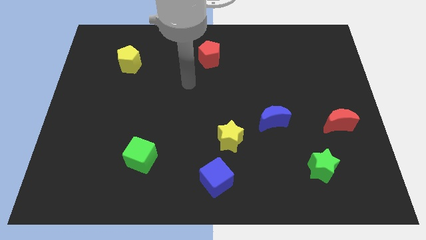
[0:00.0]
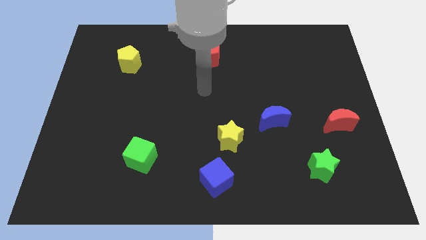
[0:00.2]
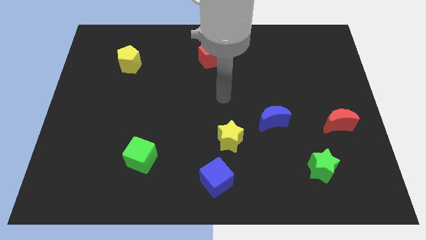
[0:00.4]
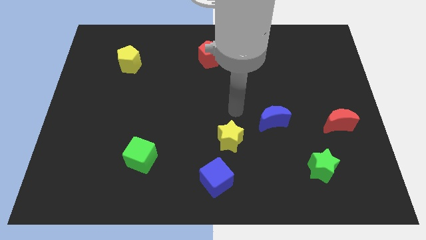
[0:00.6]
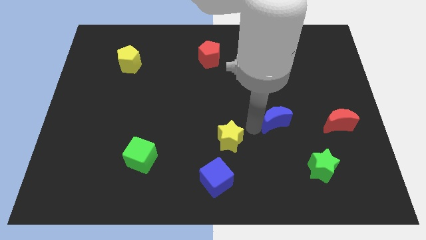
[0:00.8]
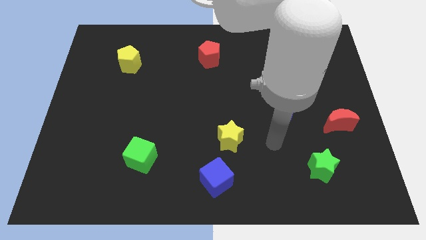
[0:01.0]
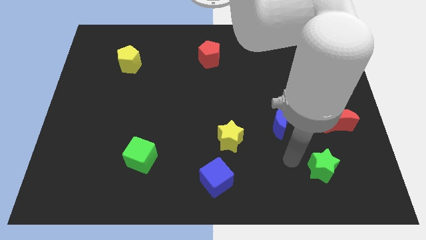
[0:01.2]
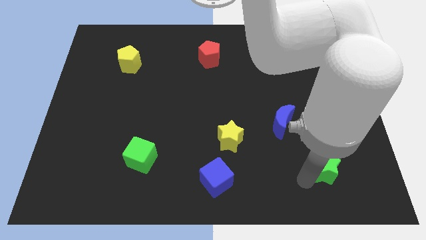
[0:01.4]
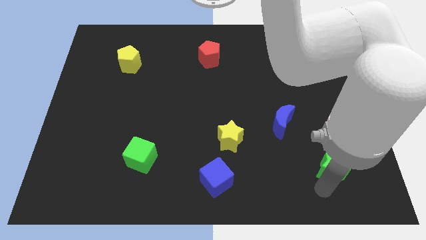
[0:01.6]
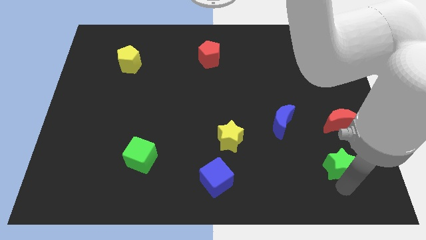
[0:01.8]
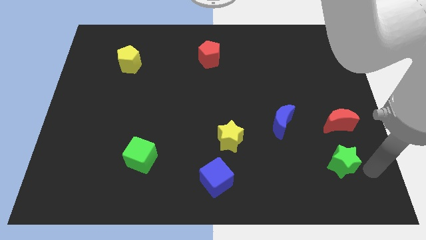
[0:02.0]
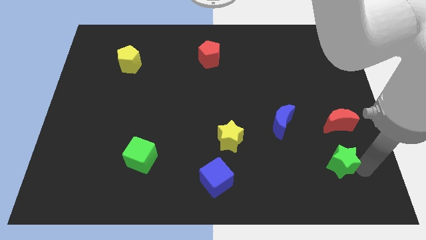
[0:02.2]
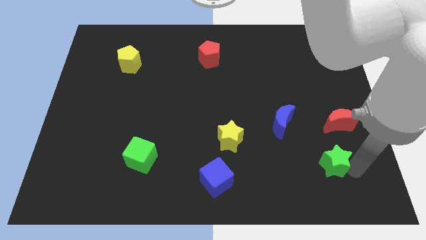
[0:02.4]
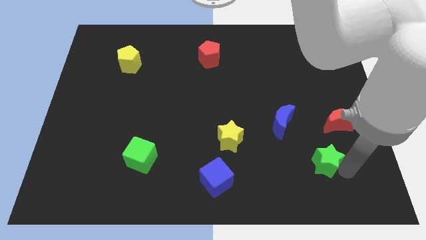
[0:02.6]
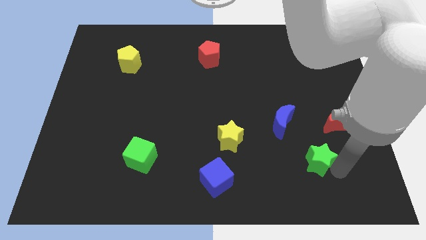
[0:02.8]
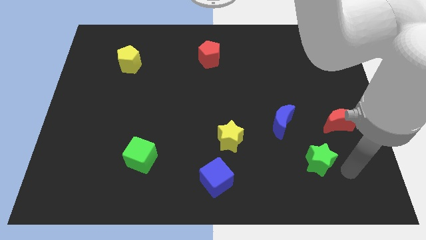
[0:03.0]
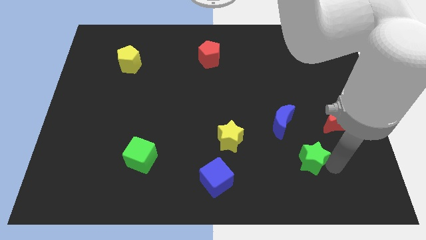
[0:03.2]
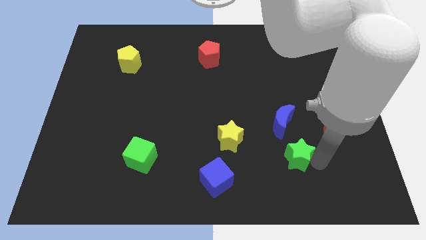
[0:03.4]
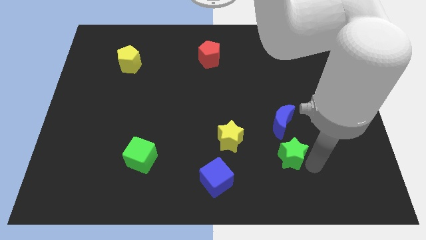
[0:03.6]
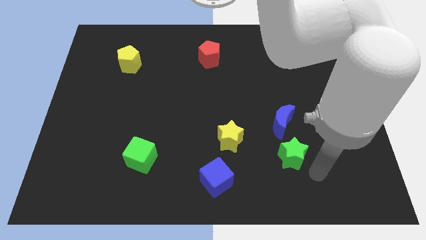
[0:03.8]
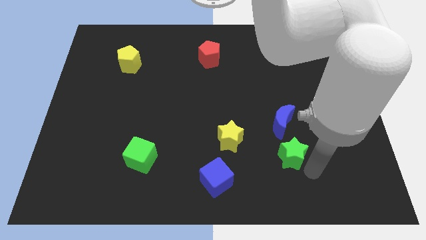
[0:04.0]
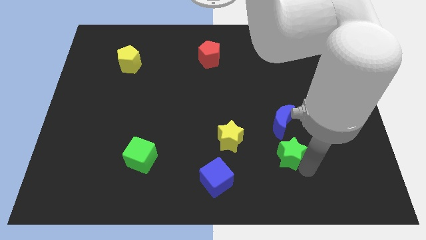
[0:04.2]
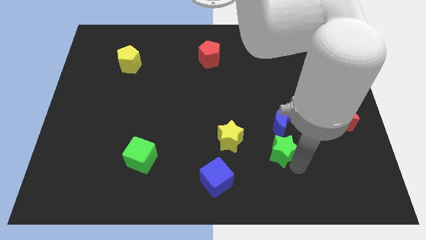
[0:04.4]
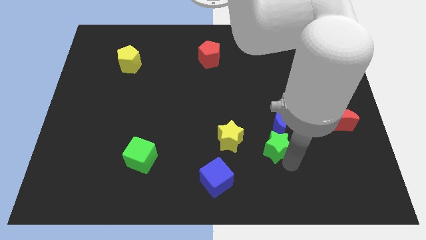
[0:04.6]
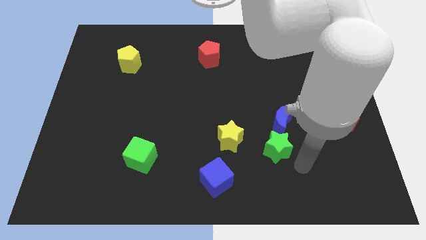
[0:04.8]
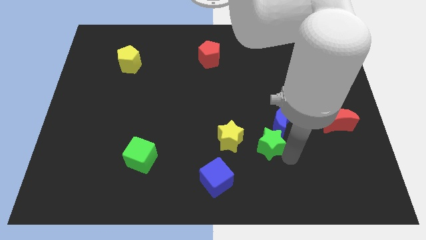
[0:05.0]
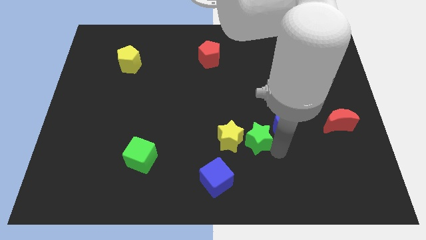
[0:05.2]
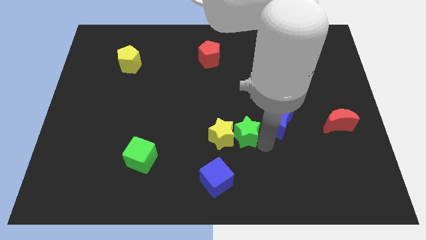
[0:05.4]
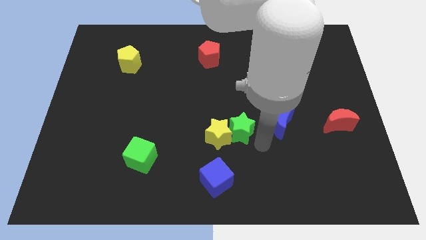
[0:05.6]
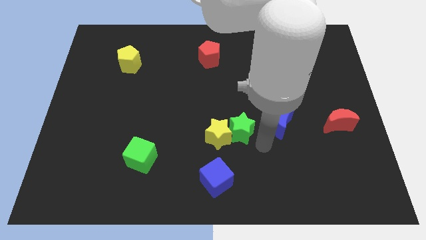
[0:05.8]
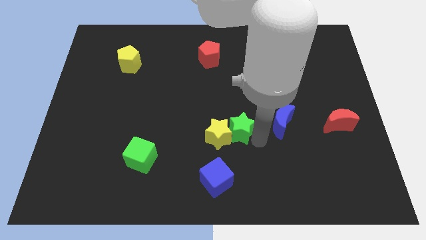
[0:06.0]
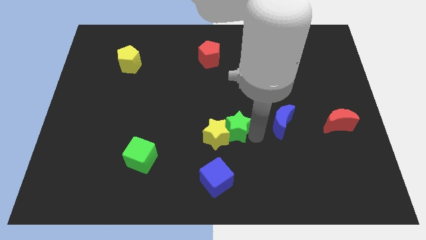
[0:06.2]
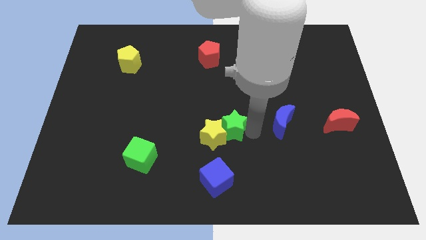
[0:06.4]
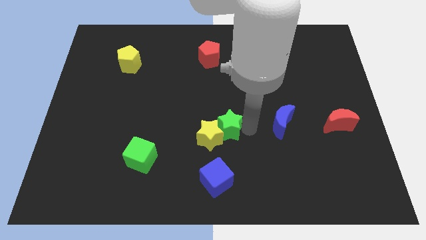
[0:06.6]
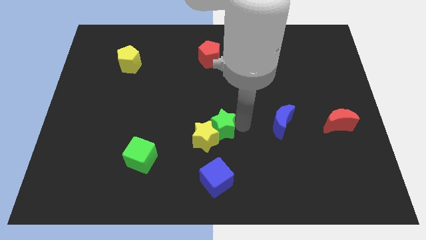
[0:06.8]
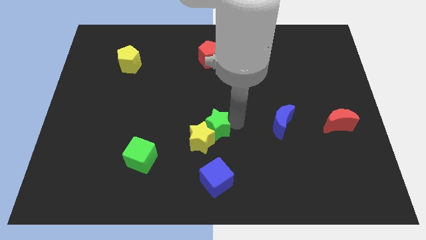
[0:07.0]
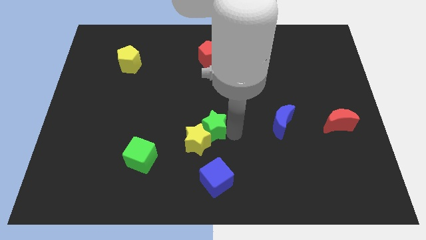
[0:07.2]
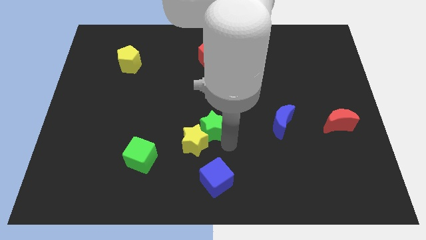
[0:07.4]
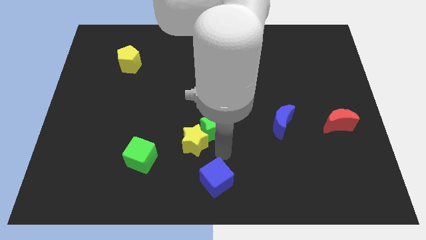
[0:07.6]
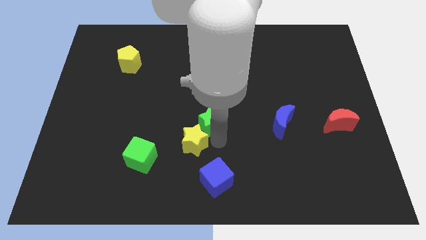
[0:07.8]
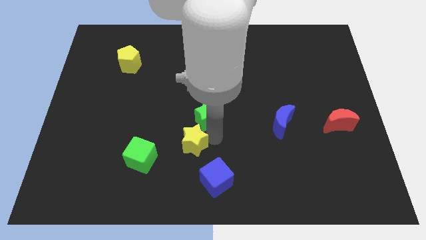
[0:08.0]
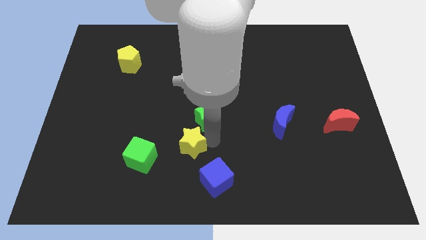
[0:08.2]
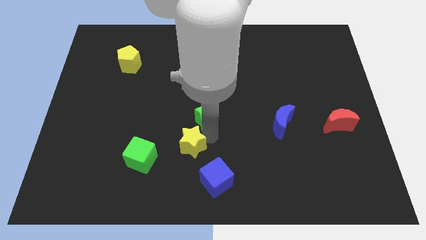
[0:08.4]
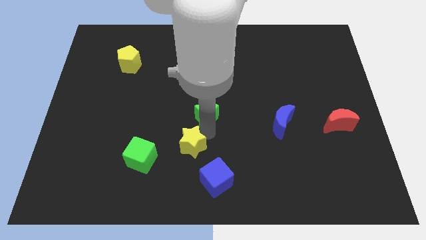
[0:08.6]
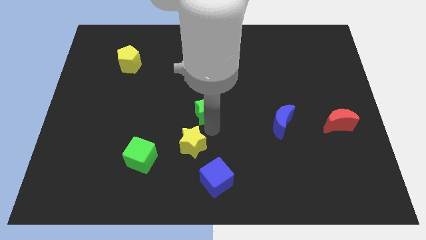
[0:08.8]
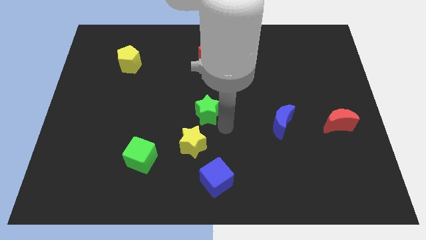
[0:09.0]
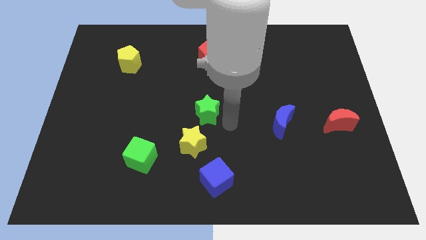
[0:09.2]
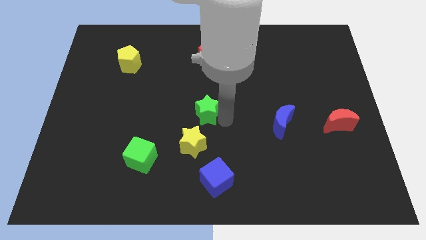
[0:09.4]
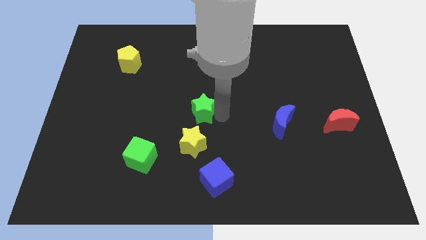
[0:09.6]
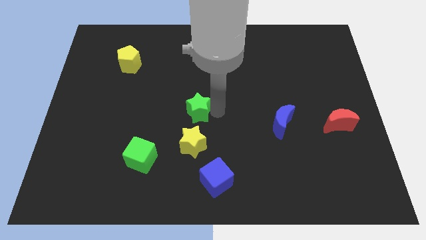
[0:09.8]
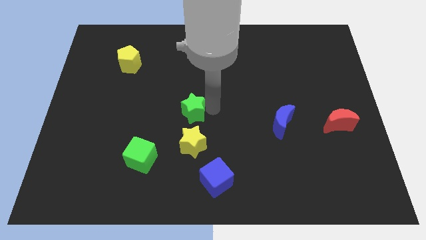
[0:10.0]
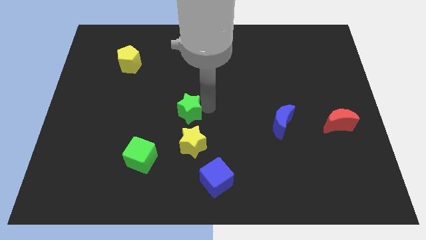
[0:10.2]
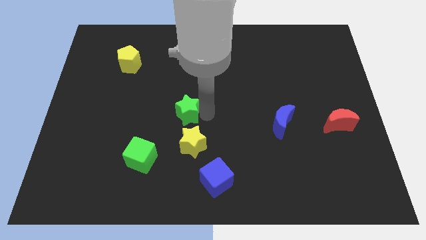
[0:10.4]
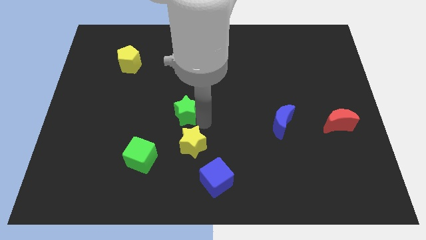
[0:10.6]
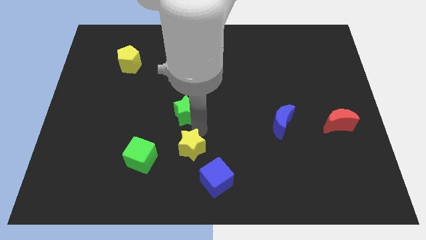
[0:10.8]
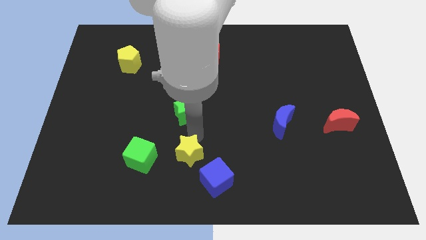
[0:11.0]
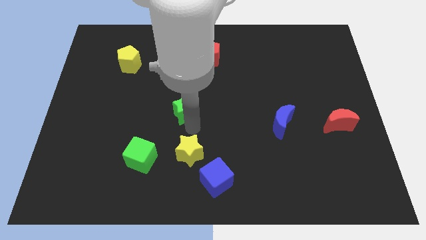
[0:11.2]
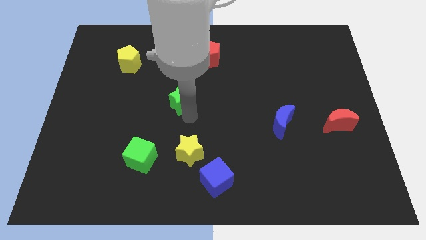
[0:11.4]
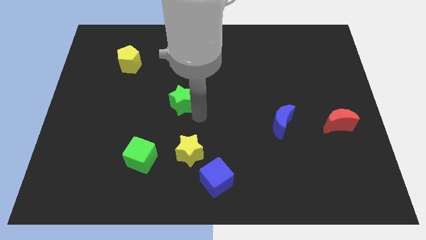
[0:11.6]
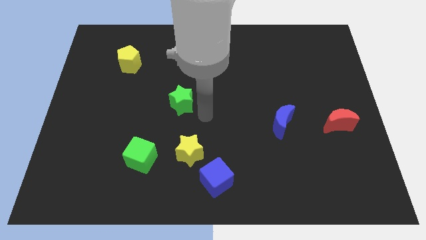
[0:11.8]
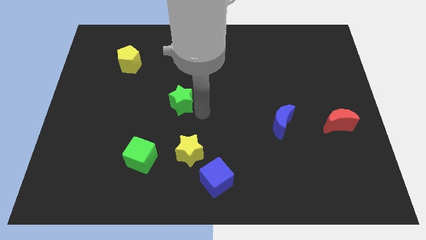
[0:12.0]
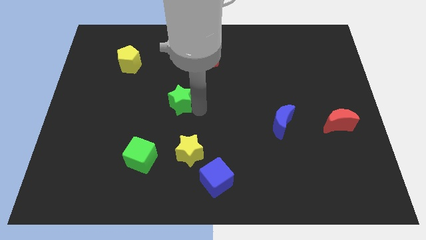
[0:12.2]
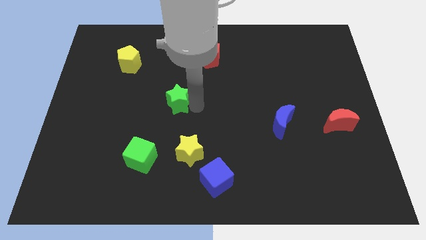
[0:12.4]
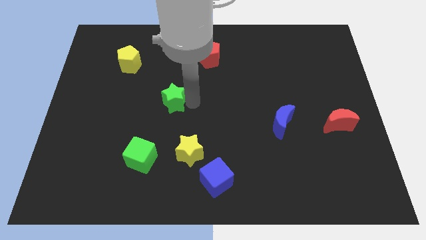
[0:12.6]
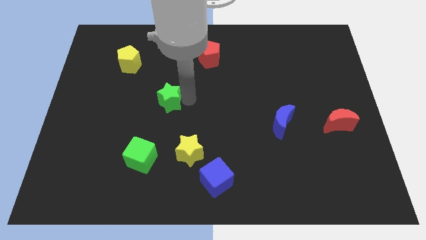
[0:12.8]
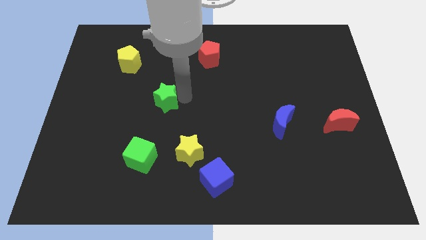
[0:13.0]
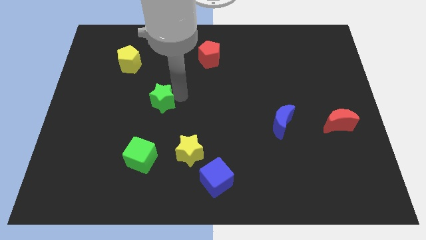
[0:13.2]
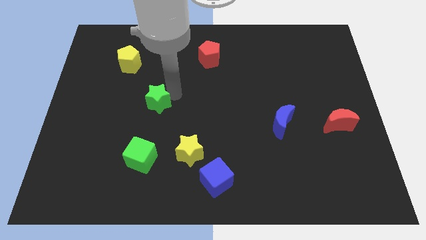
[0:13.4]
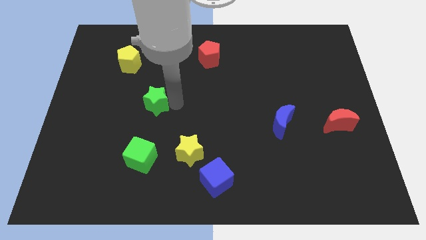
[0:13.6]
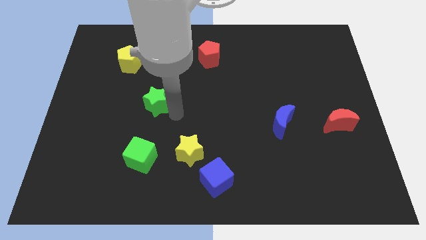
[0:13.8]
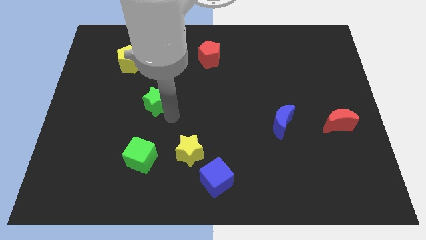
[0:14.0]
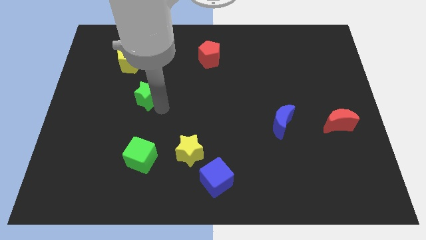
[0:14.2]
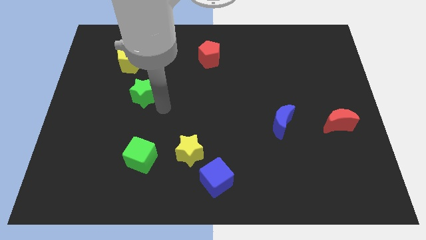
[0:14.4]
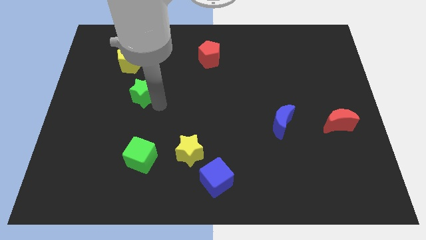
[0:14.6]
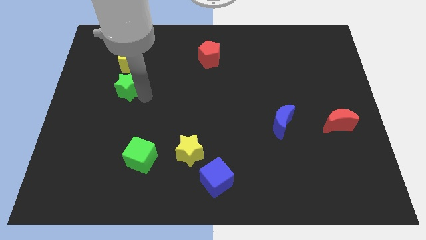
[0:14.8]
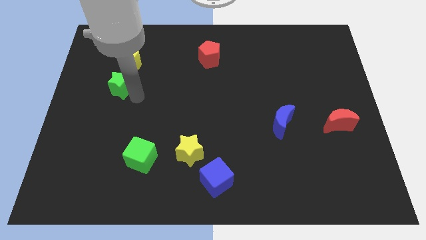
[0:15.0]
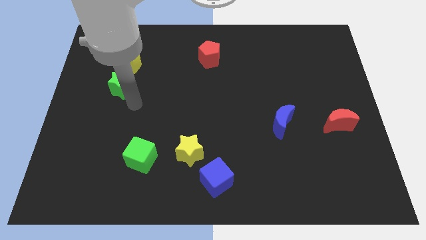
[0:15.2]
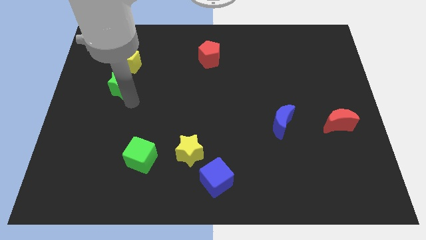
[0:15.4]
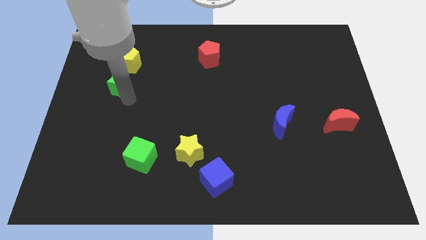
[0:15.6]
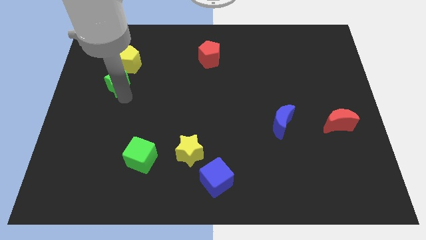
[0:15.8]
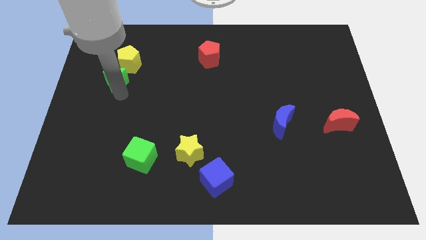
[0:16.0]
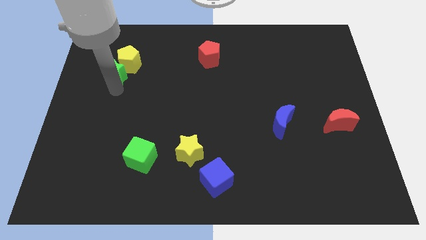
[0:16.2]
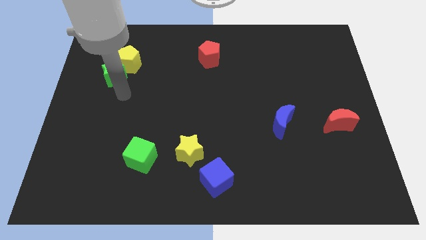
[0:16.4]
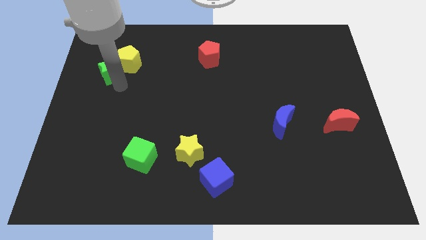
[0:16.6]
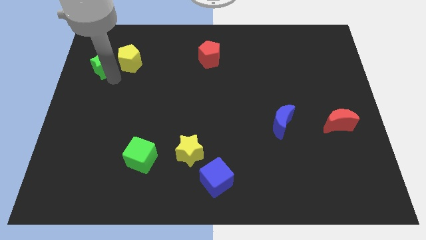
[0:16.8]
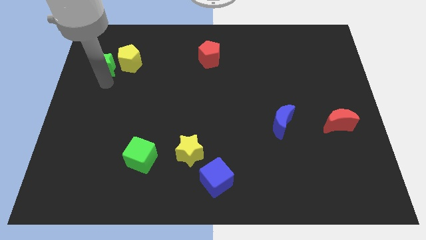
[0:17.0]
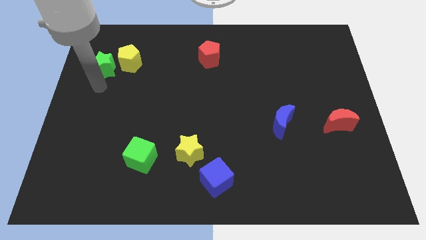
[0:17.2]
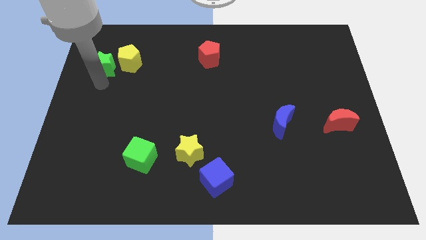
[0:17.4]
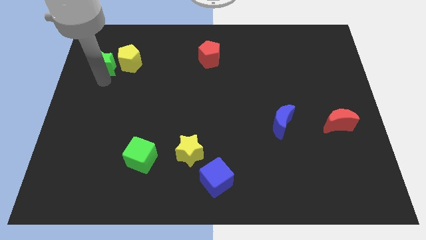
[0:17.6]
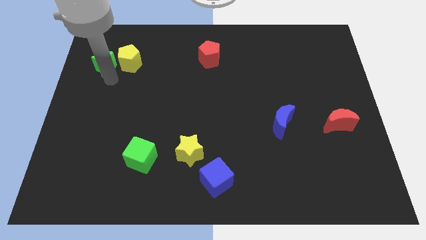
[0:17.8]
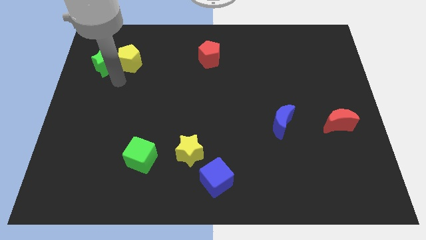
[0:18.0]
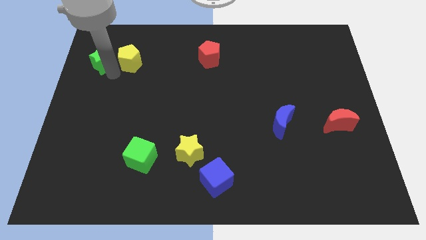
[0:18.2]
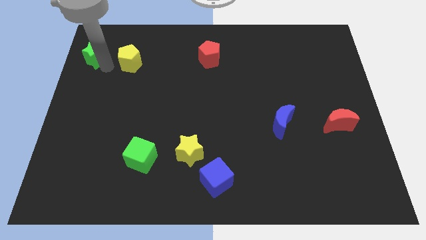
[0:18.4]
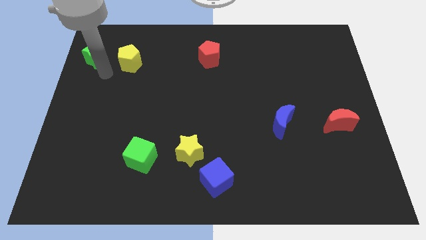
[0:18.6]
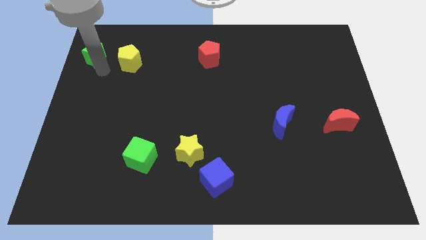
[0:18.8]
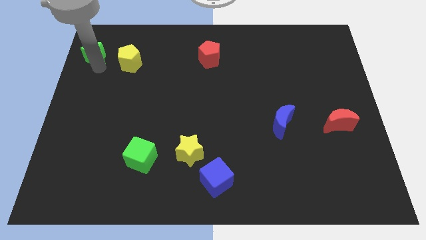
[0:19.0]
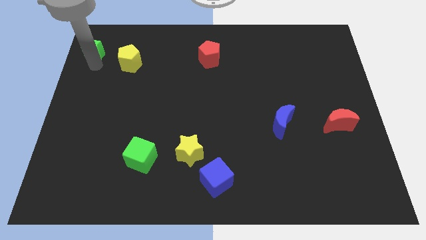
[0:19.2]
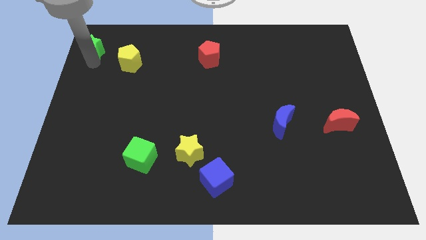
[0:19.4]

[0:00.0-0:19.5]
put the green star to the top left corner
